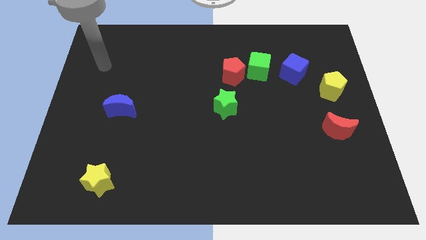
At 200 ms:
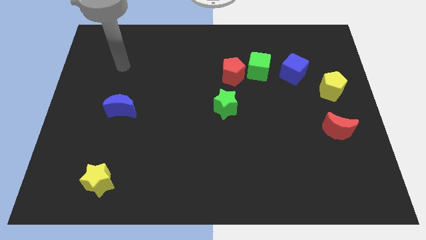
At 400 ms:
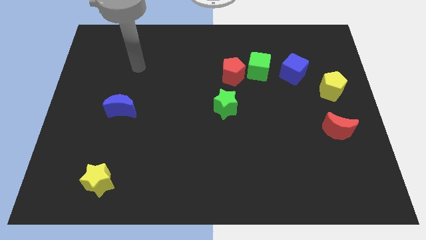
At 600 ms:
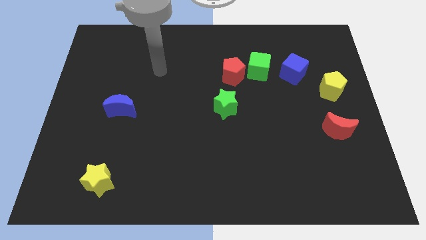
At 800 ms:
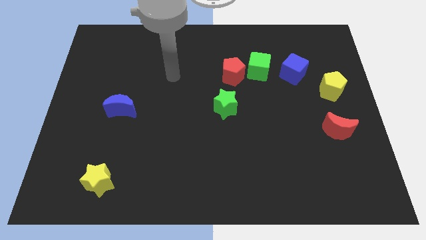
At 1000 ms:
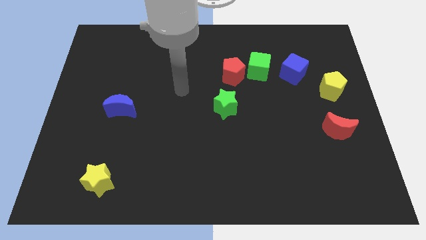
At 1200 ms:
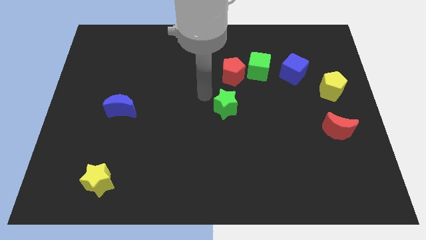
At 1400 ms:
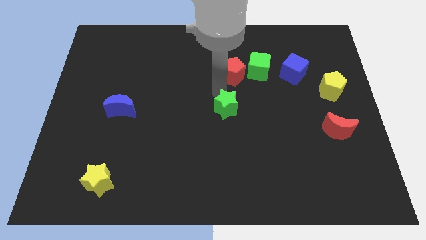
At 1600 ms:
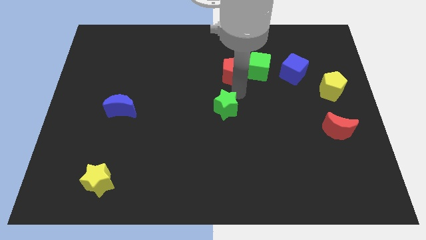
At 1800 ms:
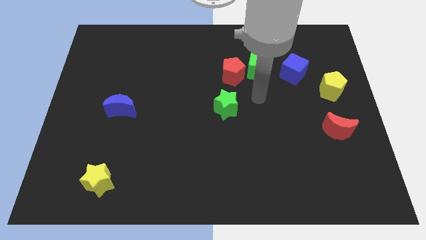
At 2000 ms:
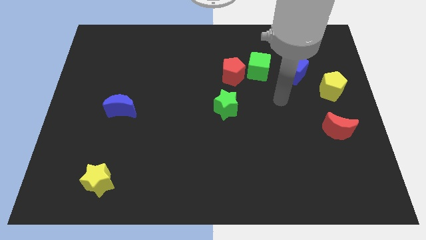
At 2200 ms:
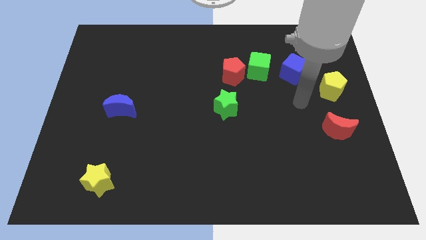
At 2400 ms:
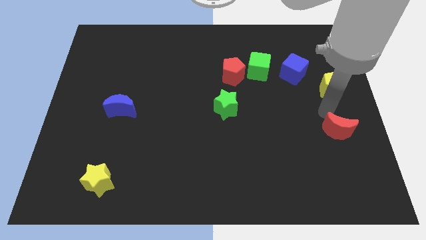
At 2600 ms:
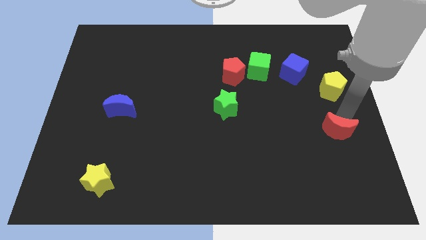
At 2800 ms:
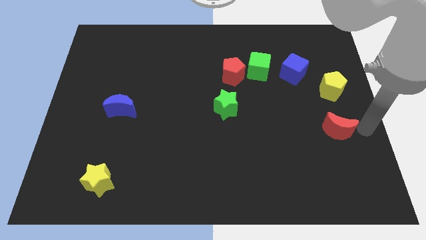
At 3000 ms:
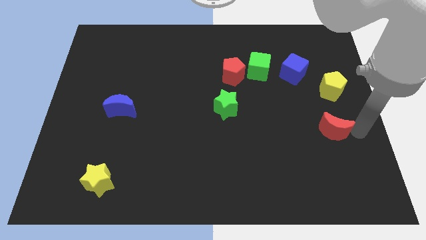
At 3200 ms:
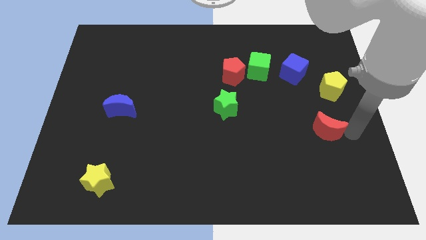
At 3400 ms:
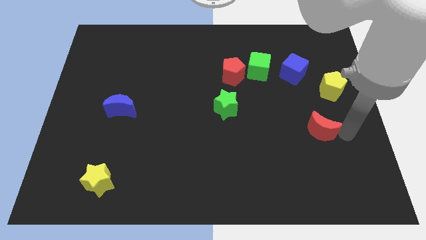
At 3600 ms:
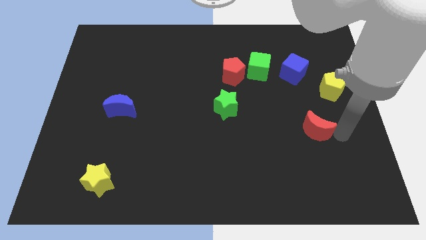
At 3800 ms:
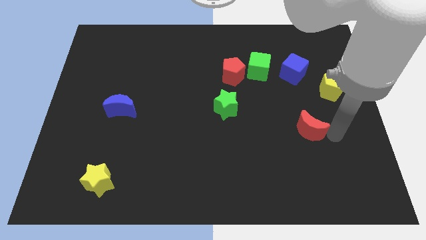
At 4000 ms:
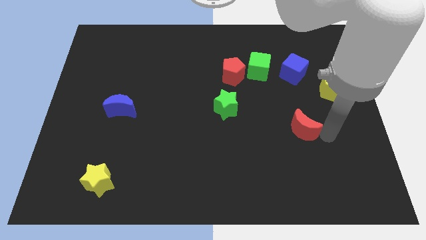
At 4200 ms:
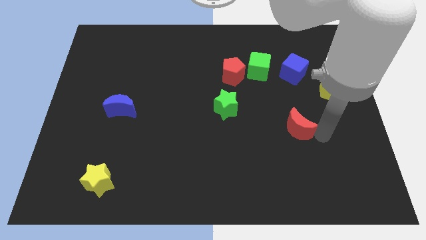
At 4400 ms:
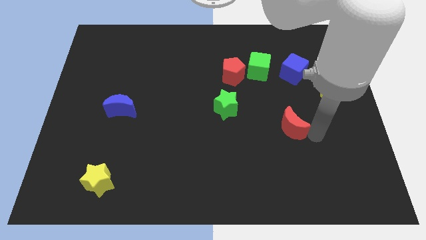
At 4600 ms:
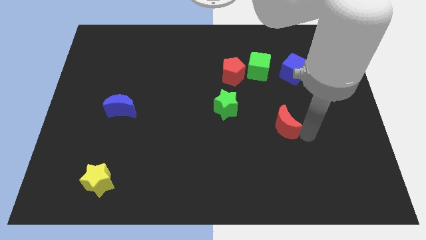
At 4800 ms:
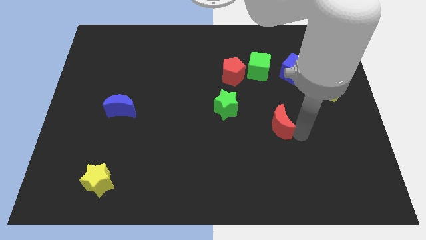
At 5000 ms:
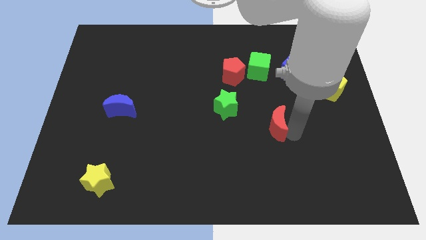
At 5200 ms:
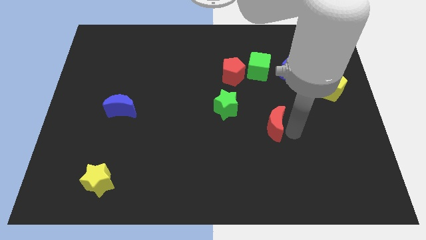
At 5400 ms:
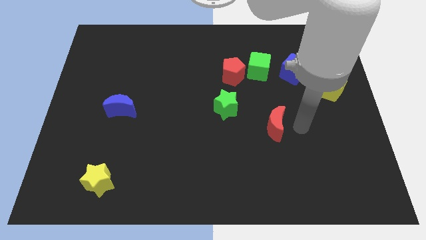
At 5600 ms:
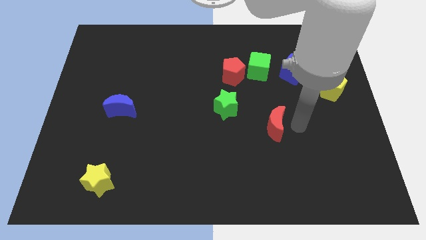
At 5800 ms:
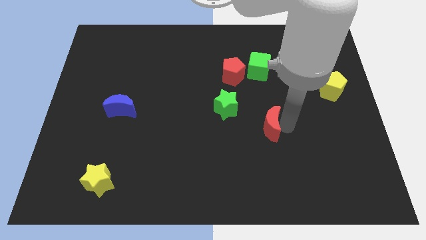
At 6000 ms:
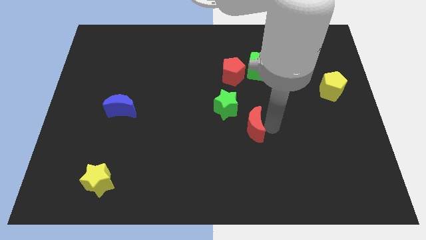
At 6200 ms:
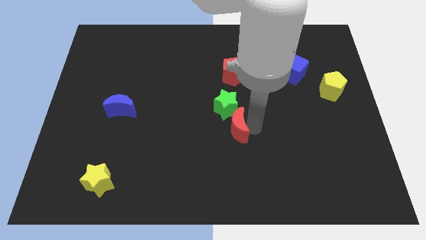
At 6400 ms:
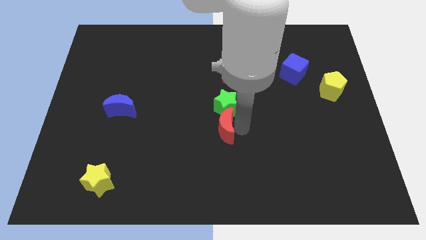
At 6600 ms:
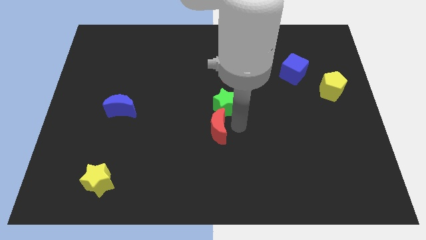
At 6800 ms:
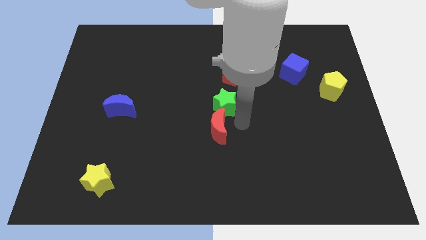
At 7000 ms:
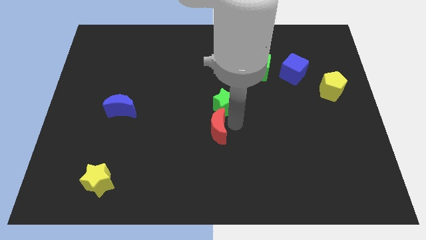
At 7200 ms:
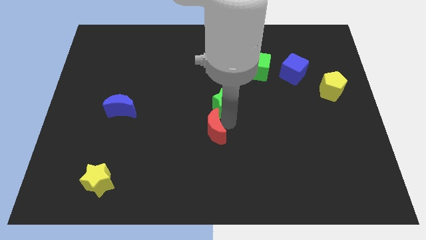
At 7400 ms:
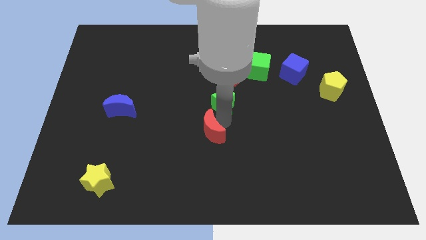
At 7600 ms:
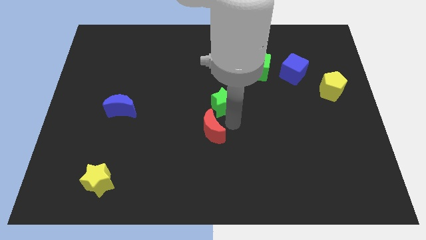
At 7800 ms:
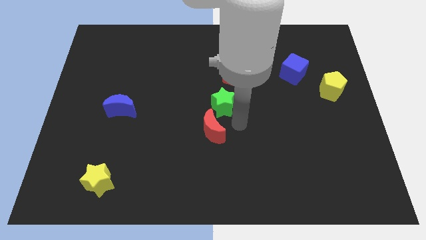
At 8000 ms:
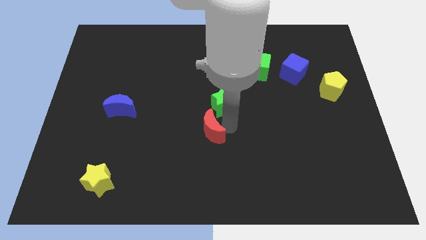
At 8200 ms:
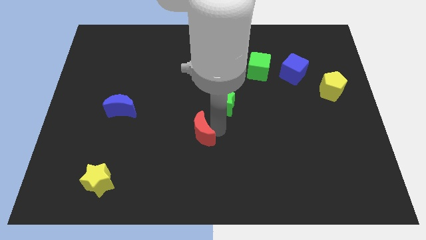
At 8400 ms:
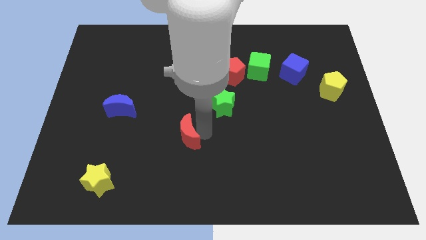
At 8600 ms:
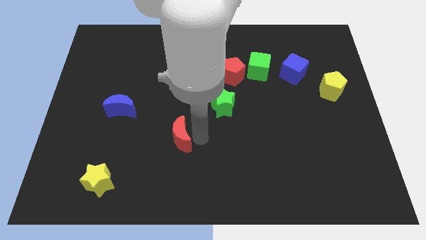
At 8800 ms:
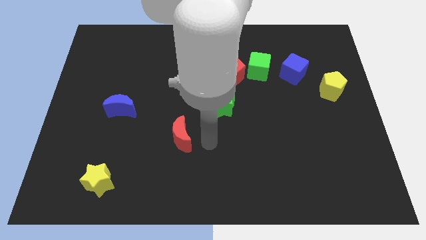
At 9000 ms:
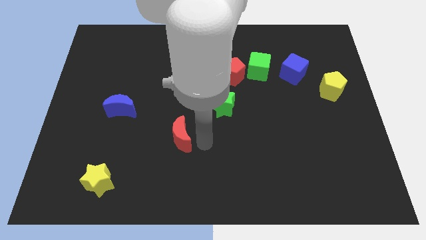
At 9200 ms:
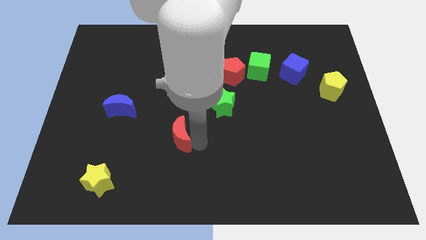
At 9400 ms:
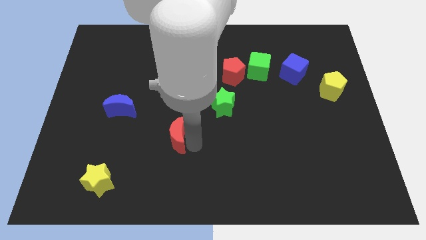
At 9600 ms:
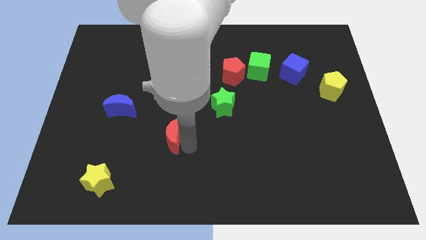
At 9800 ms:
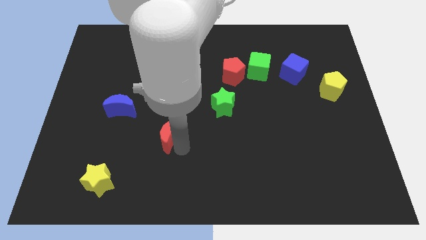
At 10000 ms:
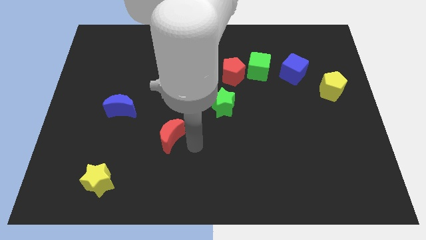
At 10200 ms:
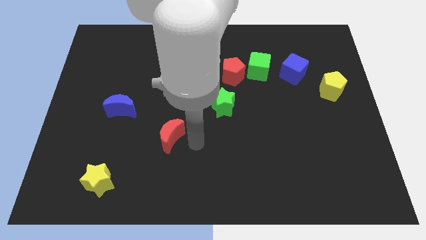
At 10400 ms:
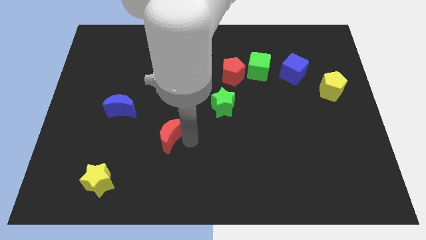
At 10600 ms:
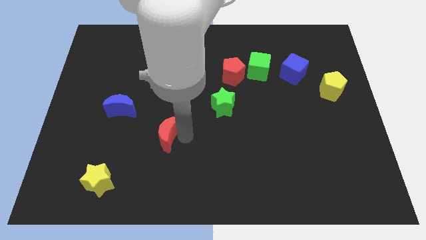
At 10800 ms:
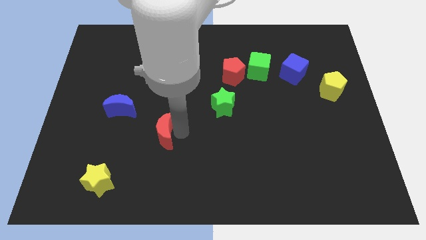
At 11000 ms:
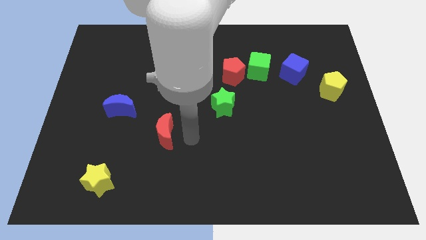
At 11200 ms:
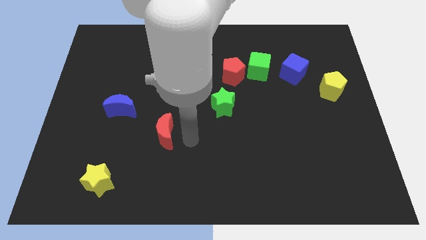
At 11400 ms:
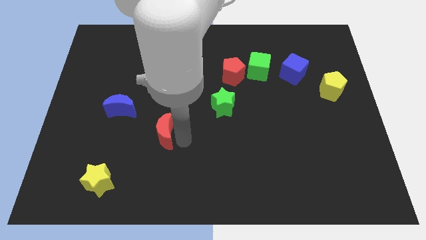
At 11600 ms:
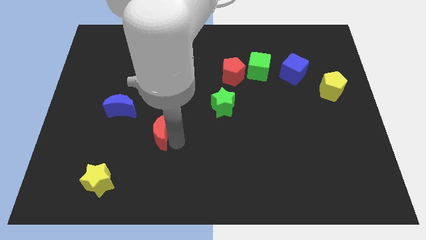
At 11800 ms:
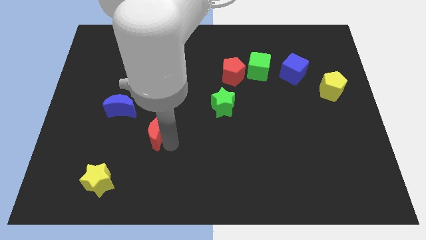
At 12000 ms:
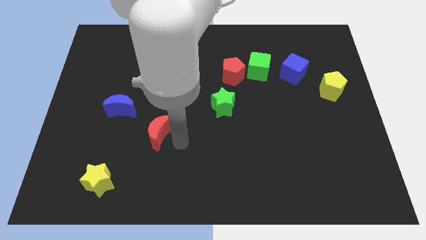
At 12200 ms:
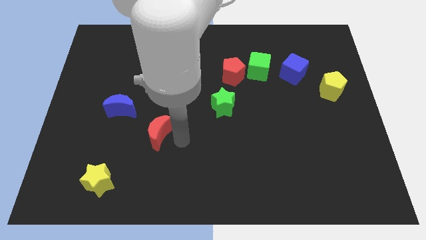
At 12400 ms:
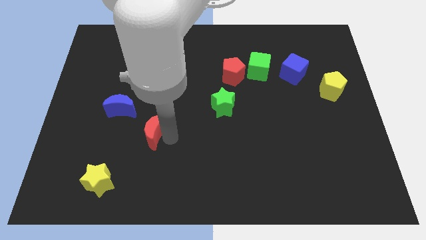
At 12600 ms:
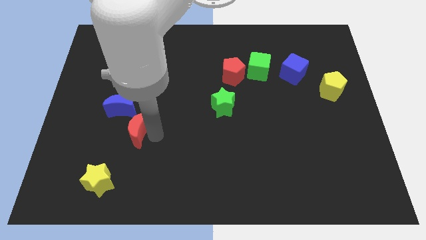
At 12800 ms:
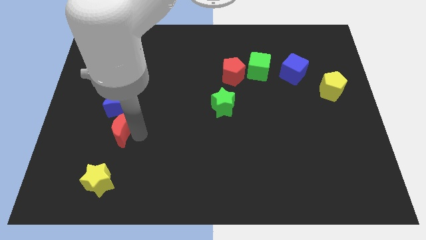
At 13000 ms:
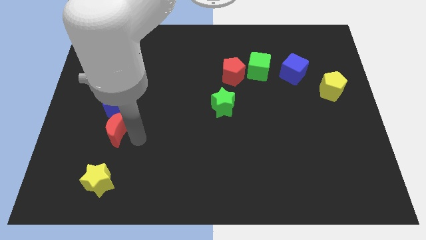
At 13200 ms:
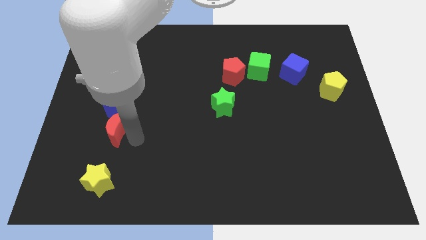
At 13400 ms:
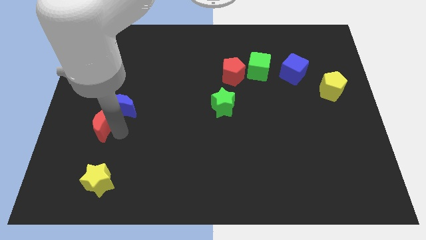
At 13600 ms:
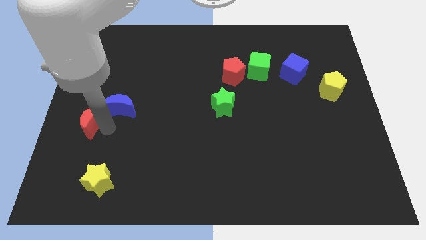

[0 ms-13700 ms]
move the red moon to the left side
